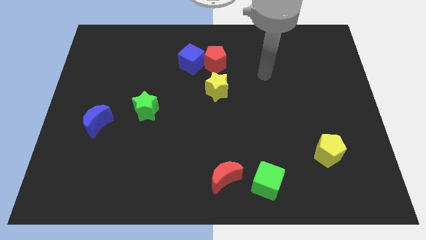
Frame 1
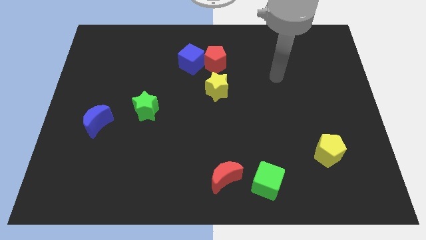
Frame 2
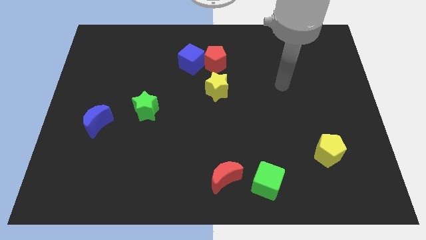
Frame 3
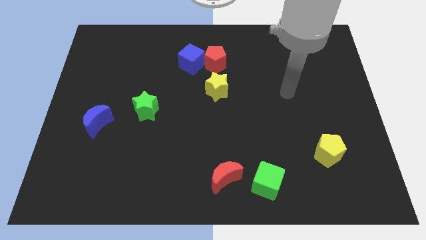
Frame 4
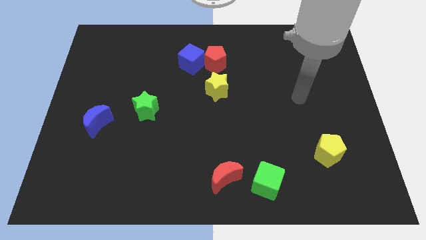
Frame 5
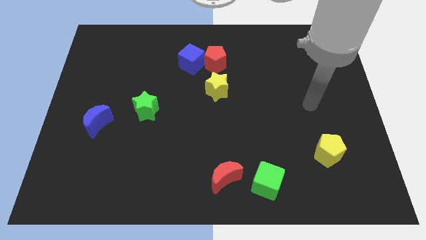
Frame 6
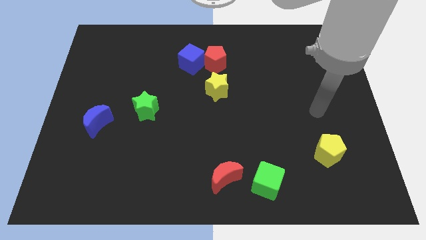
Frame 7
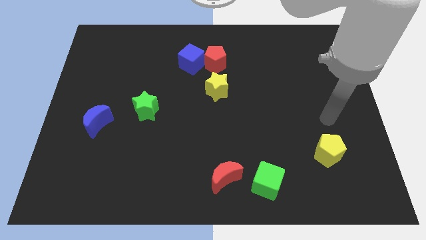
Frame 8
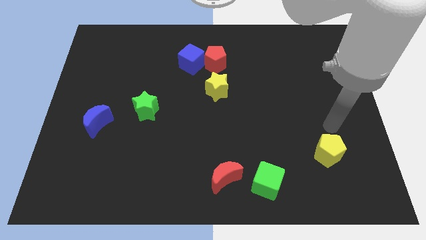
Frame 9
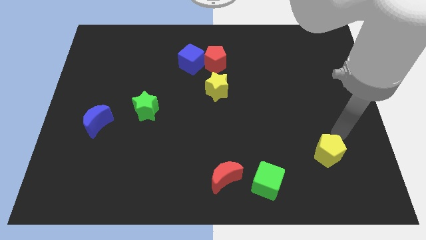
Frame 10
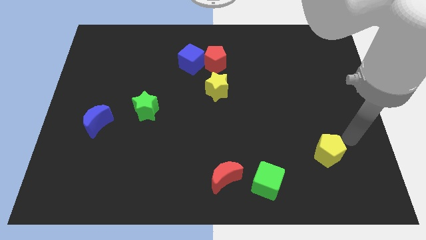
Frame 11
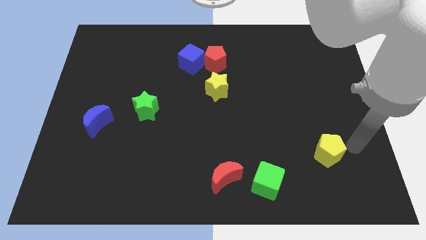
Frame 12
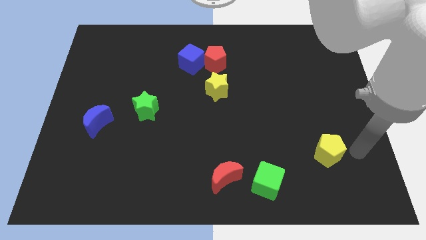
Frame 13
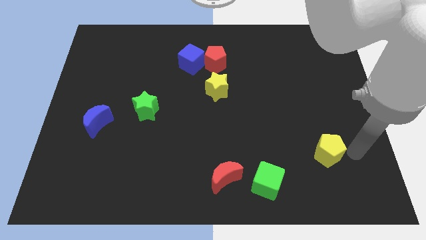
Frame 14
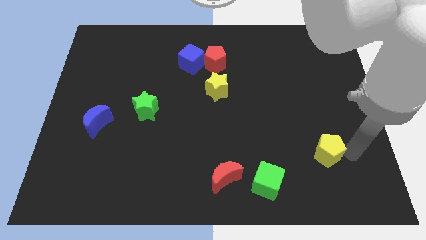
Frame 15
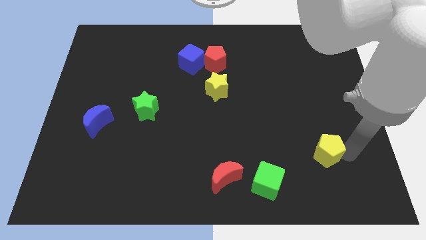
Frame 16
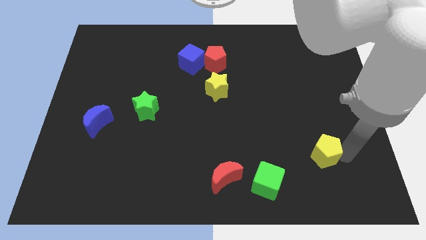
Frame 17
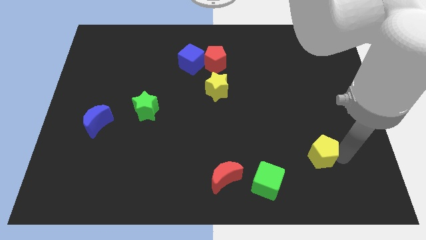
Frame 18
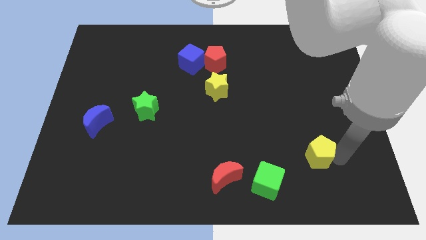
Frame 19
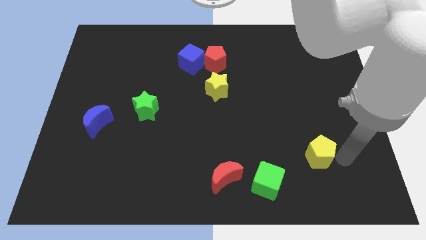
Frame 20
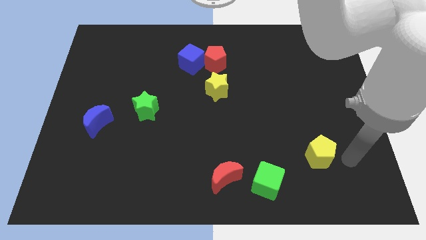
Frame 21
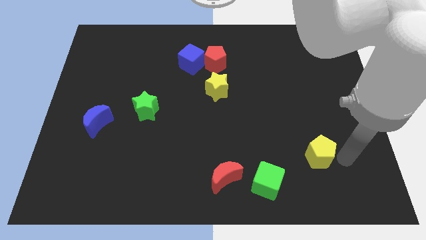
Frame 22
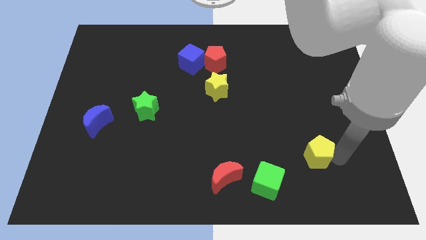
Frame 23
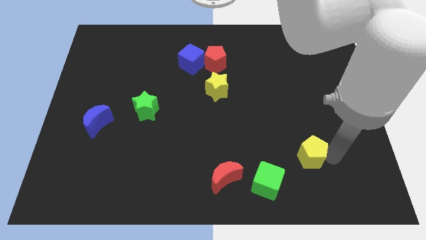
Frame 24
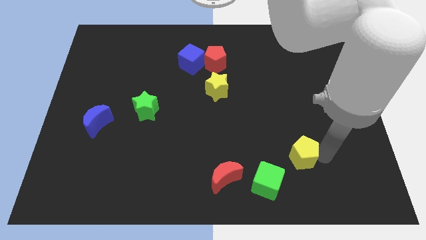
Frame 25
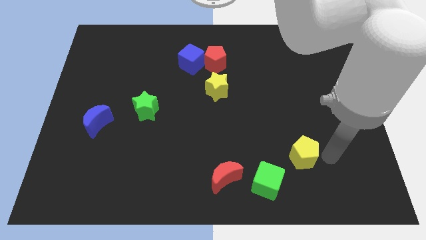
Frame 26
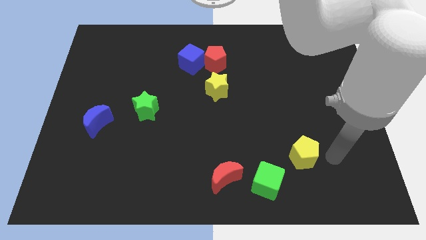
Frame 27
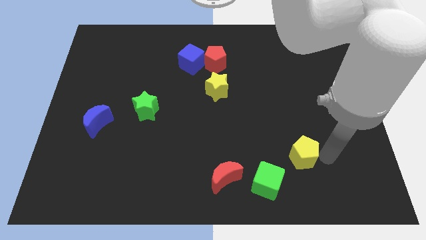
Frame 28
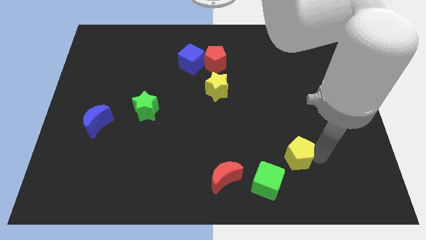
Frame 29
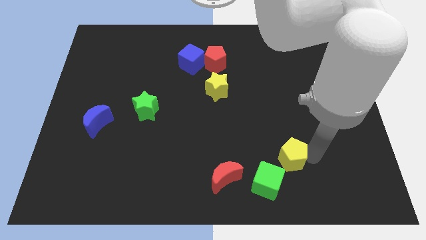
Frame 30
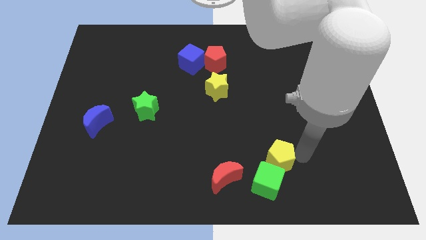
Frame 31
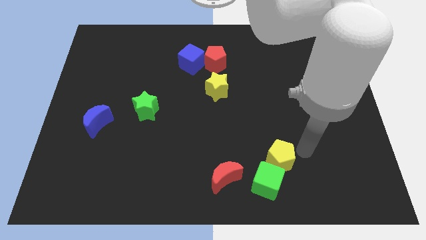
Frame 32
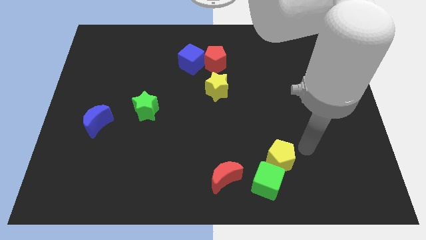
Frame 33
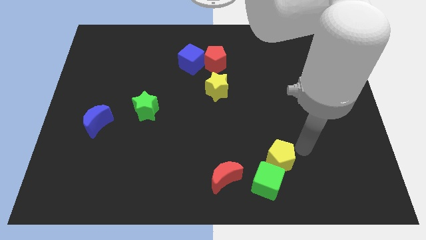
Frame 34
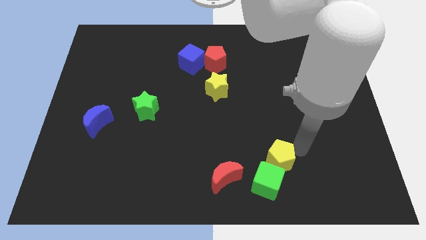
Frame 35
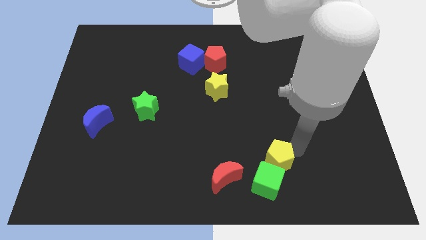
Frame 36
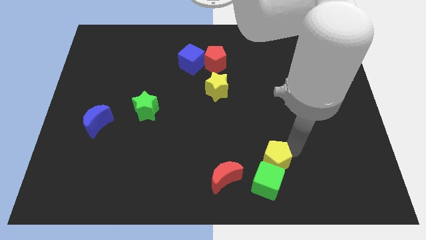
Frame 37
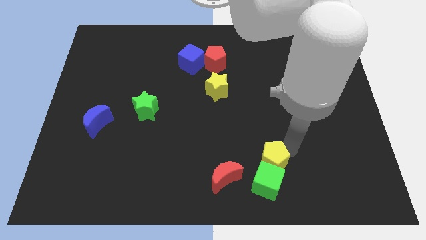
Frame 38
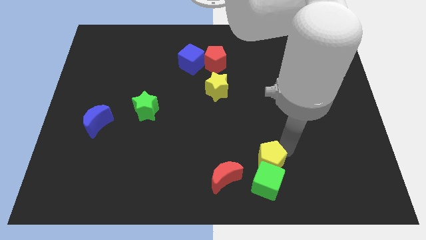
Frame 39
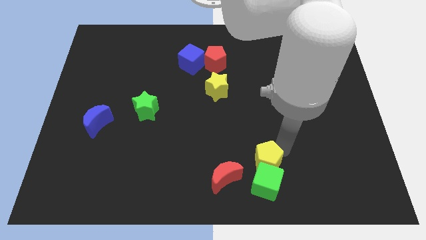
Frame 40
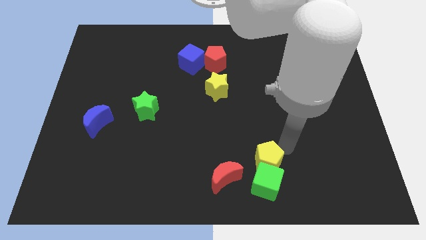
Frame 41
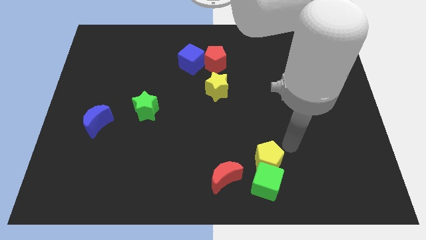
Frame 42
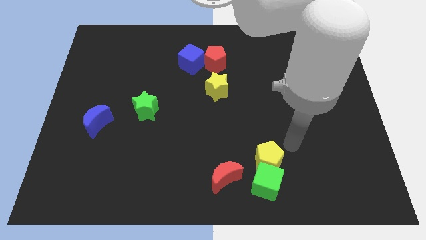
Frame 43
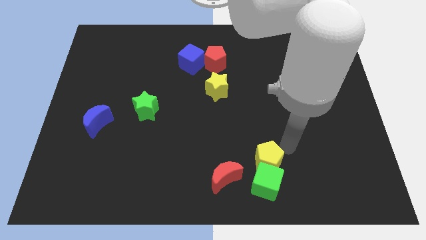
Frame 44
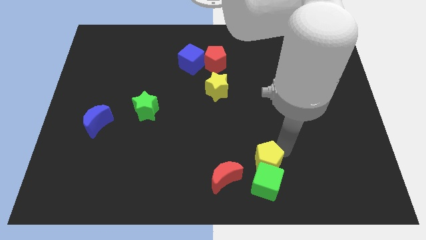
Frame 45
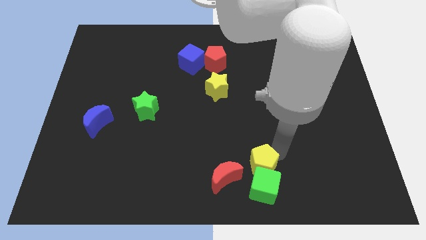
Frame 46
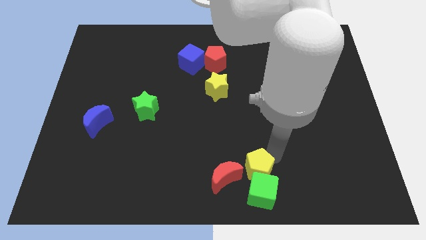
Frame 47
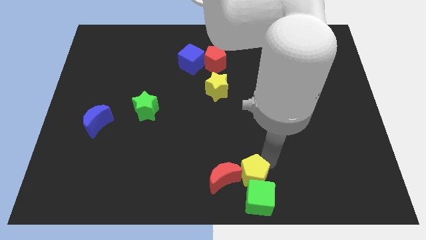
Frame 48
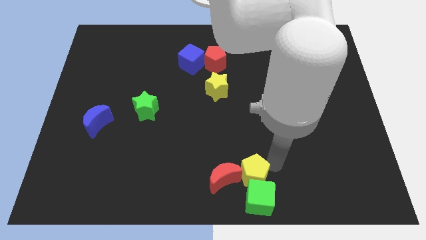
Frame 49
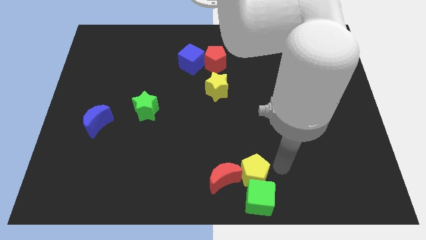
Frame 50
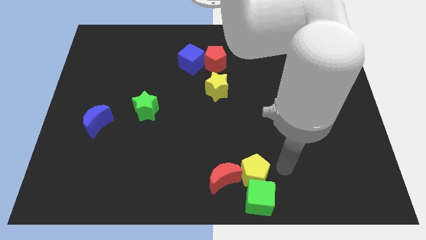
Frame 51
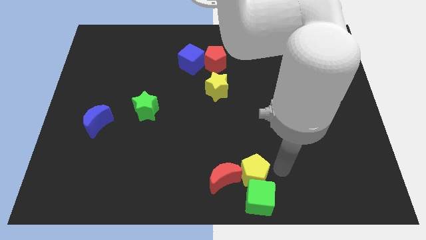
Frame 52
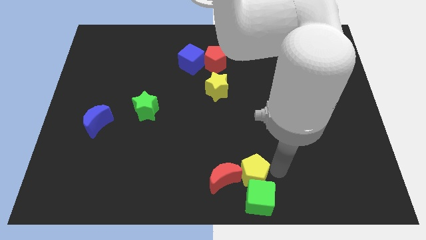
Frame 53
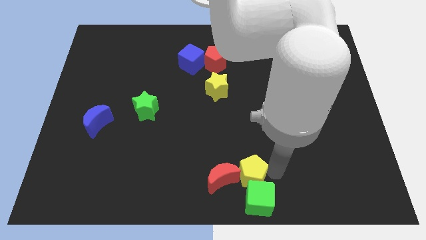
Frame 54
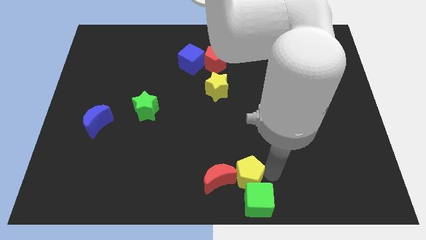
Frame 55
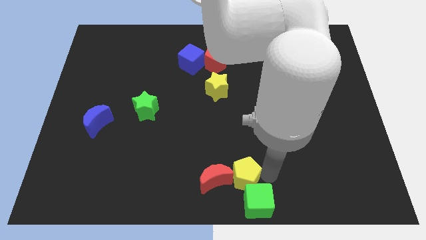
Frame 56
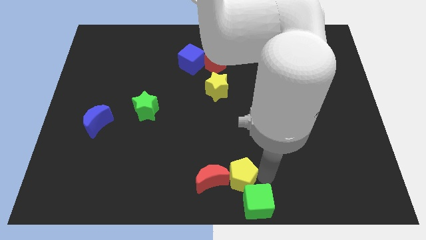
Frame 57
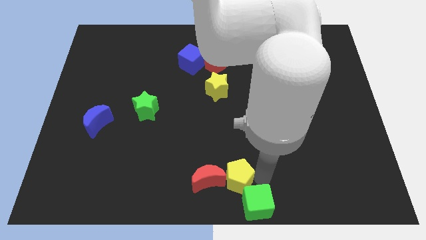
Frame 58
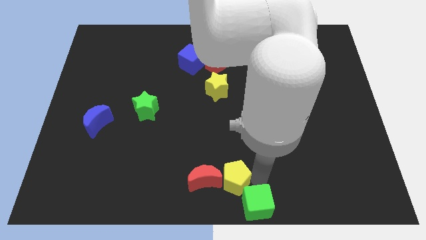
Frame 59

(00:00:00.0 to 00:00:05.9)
slide the yellow pentagon close to the red moon

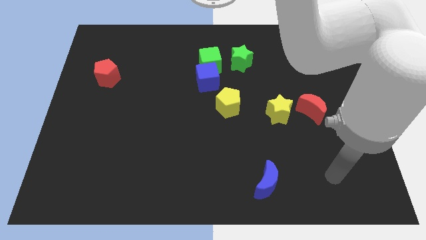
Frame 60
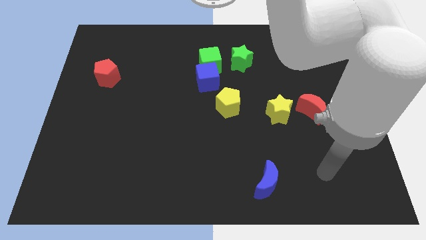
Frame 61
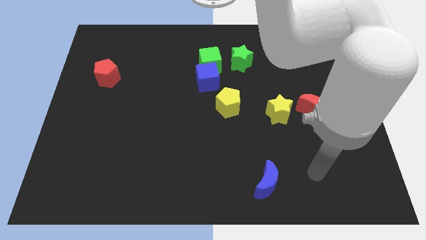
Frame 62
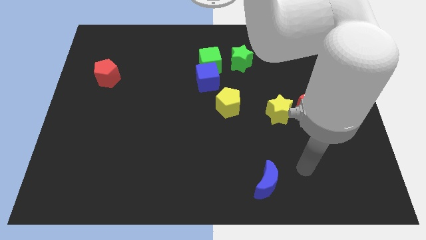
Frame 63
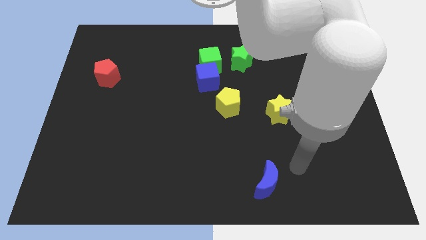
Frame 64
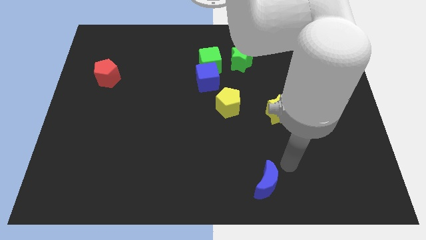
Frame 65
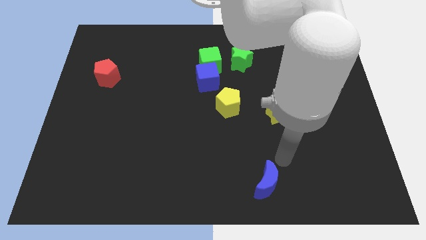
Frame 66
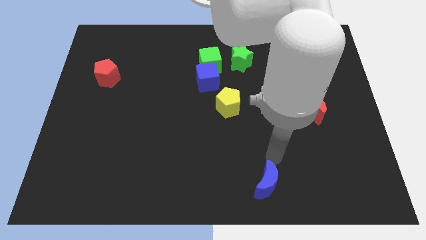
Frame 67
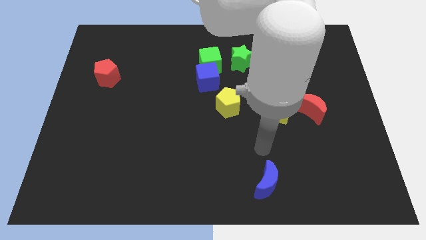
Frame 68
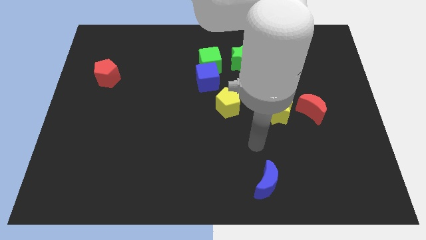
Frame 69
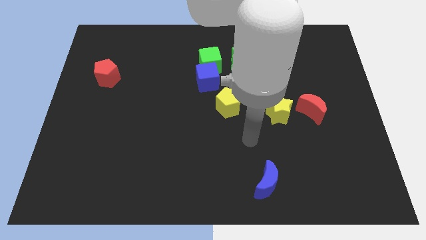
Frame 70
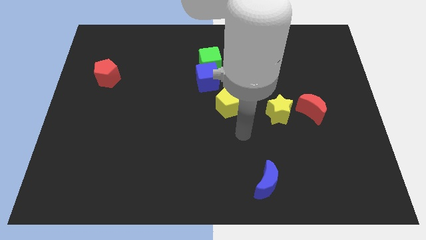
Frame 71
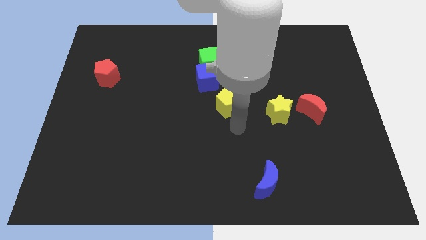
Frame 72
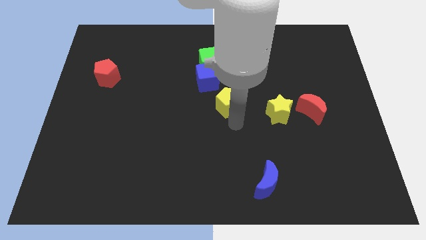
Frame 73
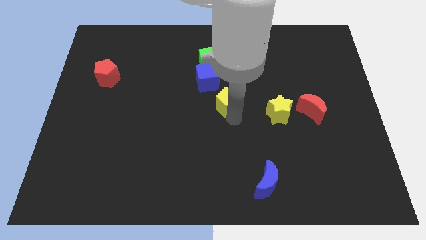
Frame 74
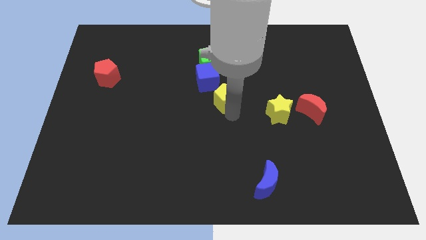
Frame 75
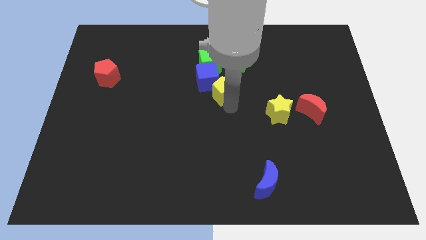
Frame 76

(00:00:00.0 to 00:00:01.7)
slide the yellow pentagon towards the blue cube

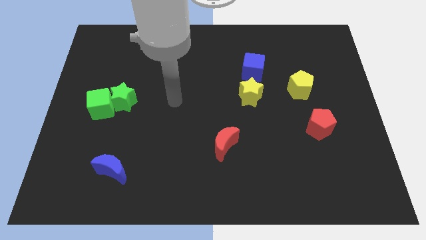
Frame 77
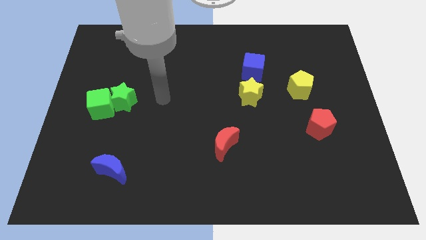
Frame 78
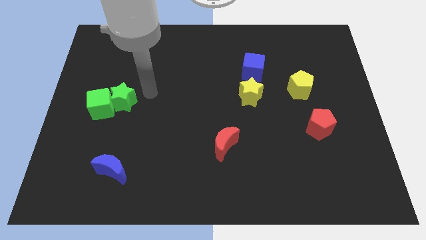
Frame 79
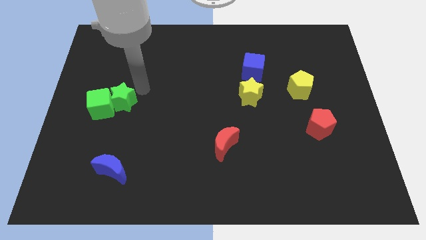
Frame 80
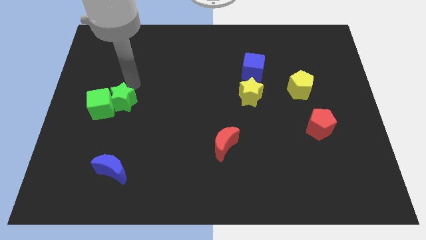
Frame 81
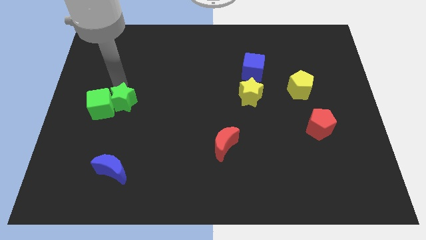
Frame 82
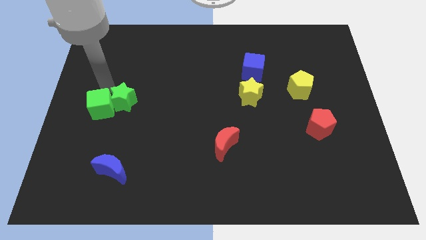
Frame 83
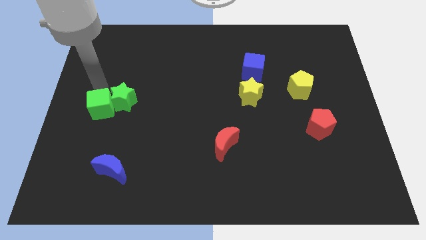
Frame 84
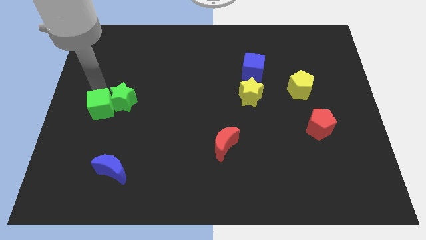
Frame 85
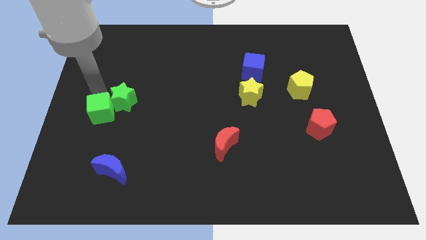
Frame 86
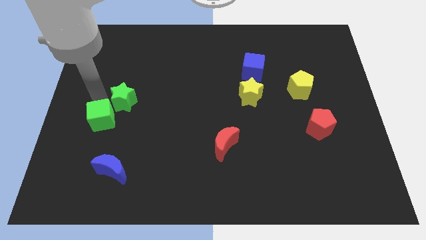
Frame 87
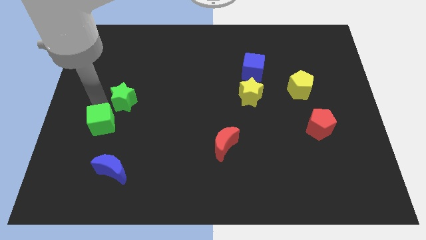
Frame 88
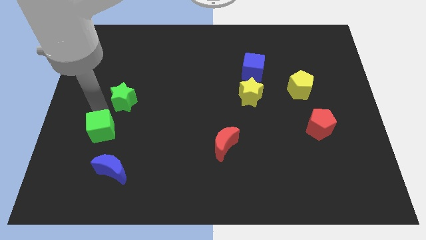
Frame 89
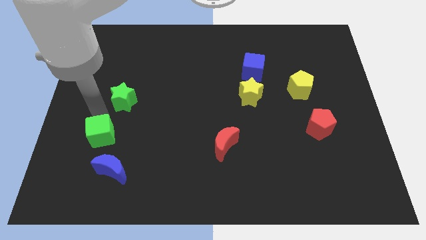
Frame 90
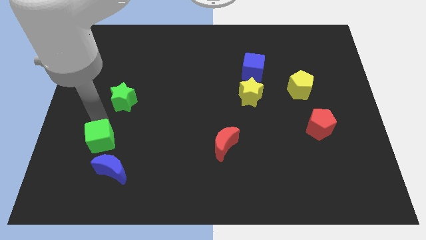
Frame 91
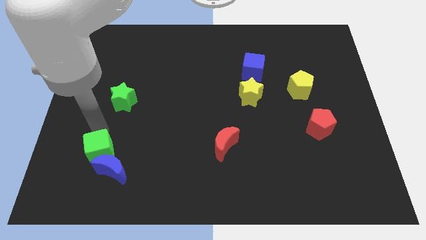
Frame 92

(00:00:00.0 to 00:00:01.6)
slide the green cube close to the blue moon
